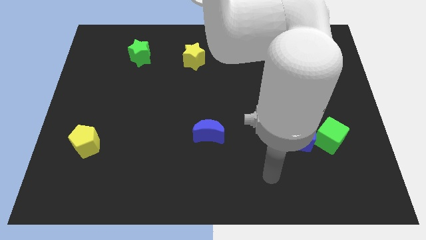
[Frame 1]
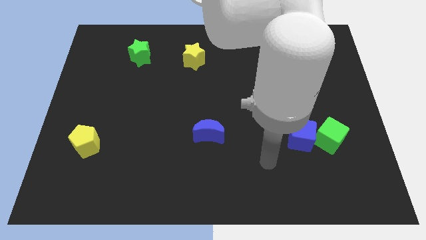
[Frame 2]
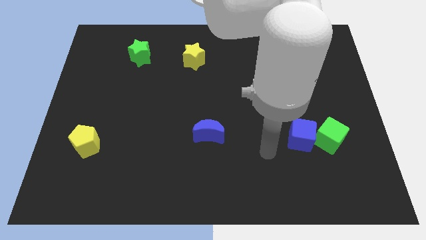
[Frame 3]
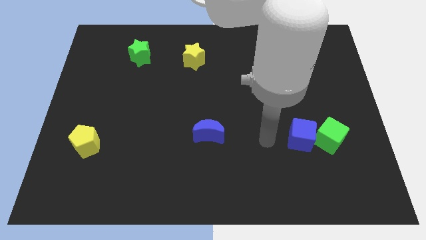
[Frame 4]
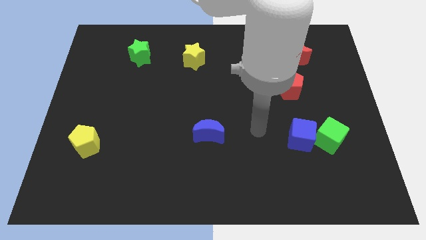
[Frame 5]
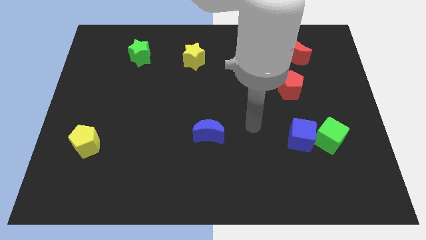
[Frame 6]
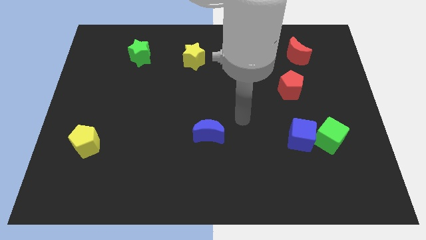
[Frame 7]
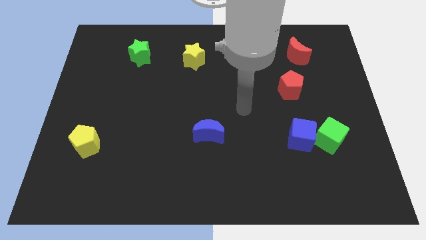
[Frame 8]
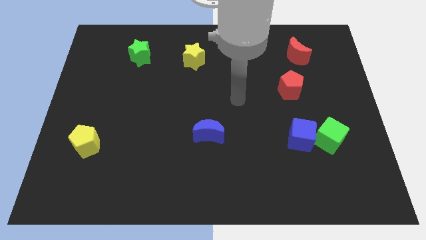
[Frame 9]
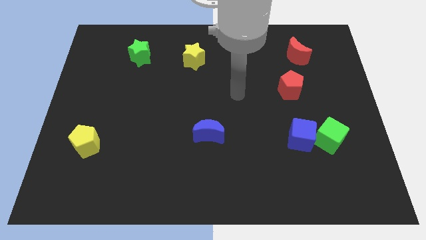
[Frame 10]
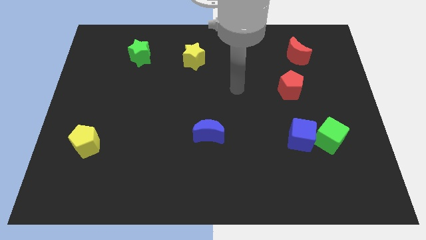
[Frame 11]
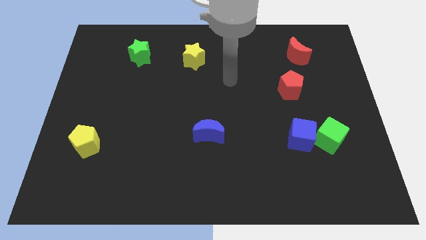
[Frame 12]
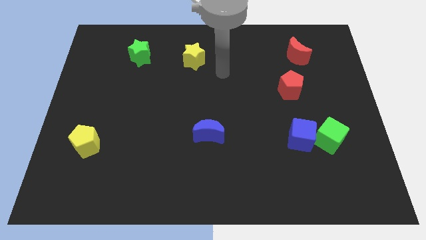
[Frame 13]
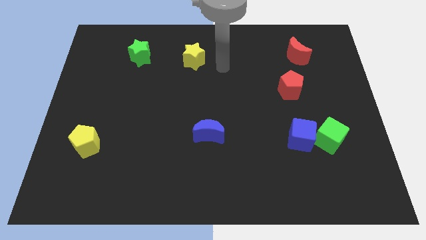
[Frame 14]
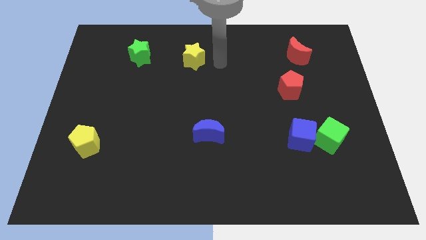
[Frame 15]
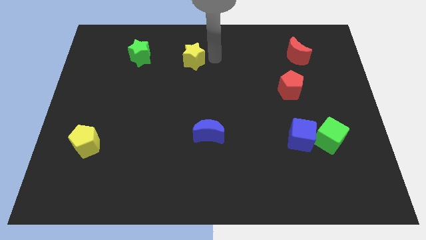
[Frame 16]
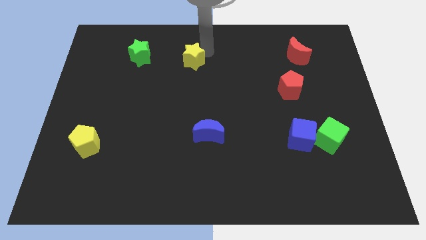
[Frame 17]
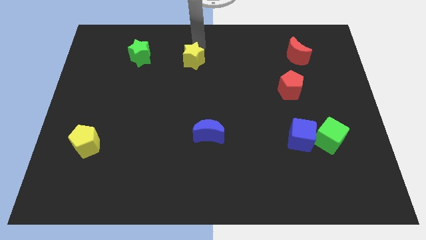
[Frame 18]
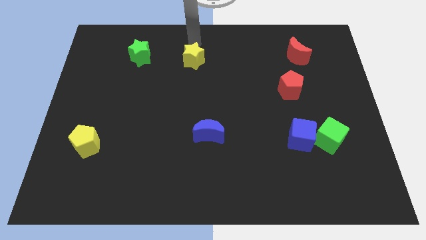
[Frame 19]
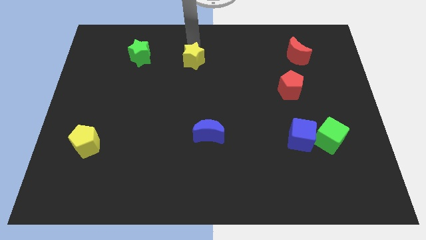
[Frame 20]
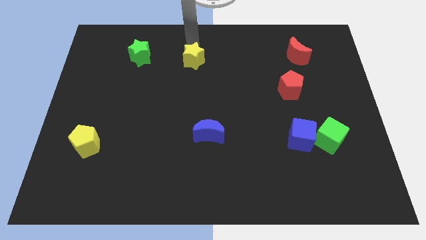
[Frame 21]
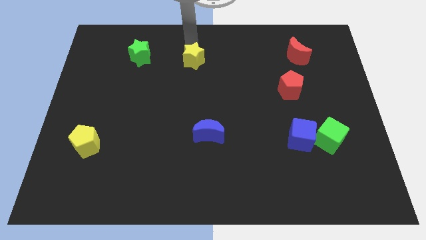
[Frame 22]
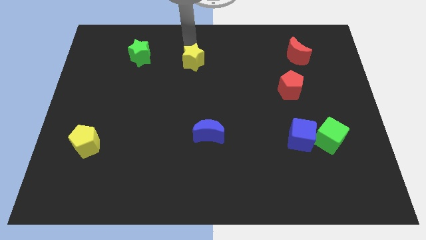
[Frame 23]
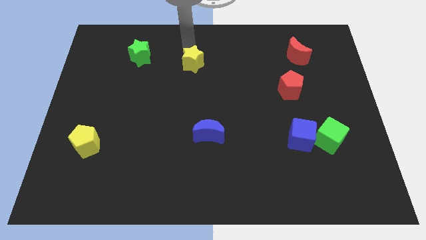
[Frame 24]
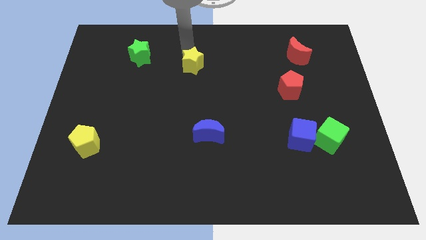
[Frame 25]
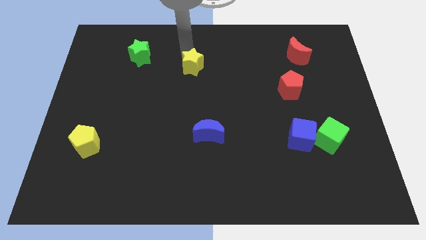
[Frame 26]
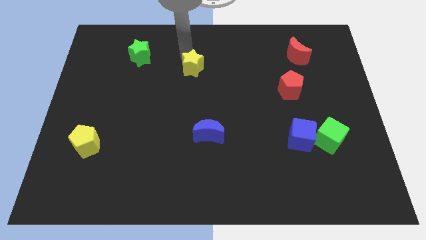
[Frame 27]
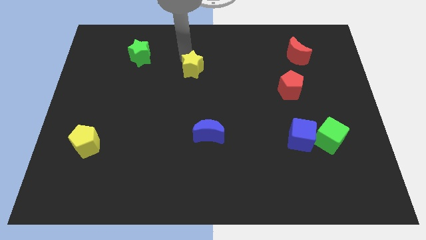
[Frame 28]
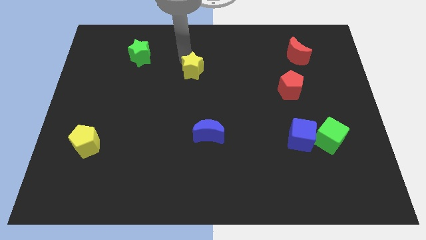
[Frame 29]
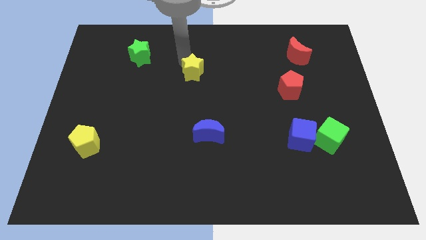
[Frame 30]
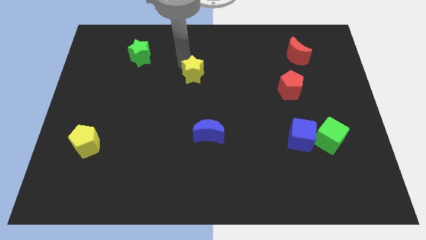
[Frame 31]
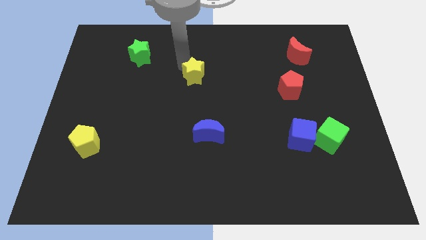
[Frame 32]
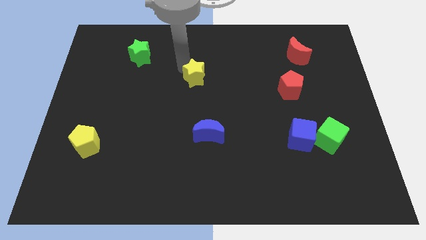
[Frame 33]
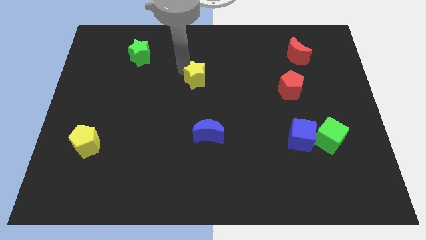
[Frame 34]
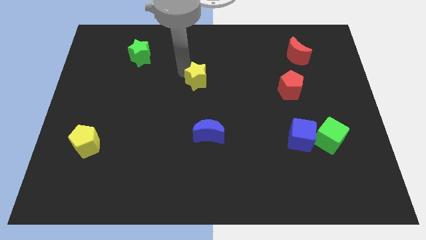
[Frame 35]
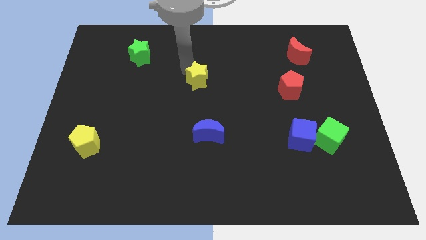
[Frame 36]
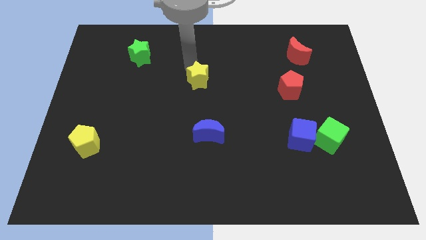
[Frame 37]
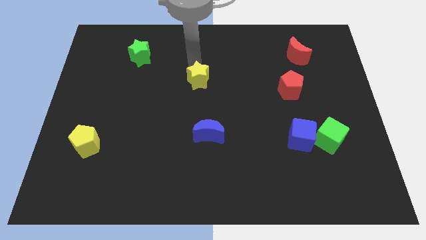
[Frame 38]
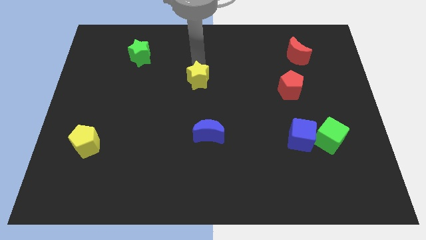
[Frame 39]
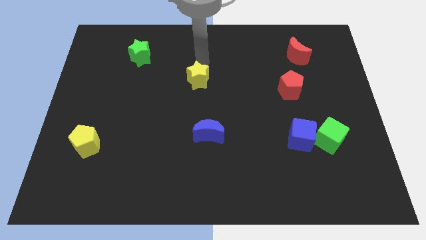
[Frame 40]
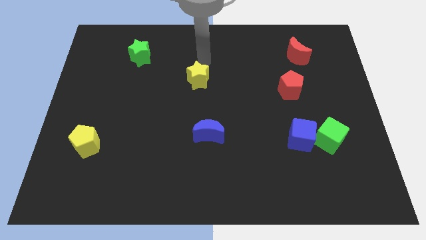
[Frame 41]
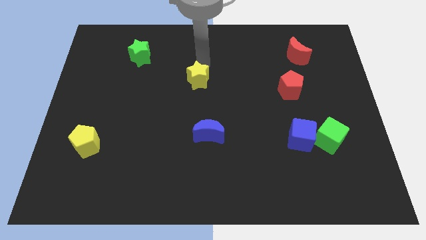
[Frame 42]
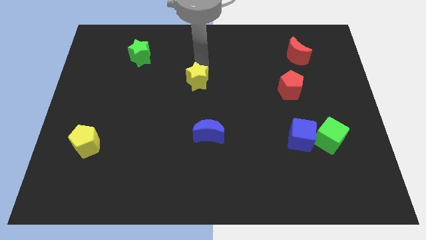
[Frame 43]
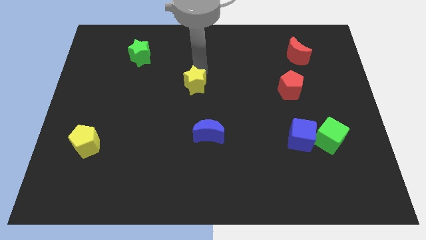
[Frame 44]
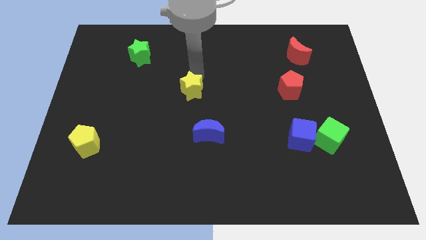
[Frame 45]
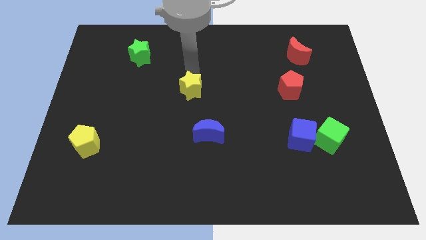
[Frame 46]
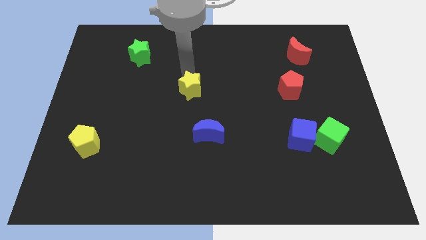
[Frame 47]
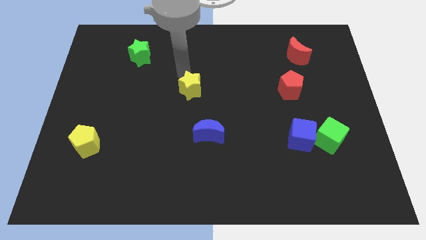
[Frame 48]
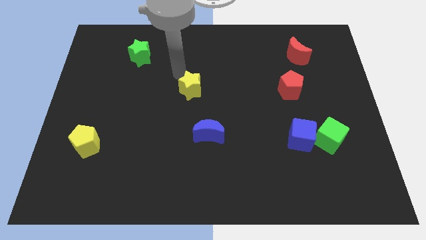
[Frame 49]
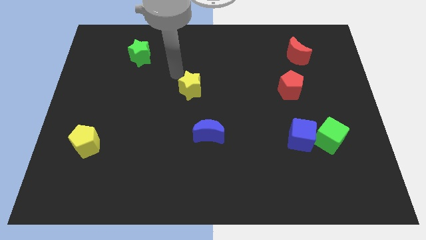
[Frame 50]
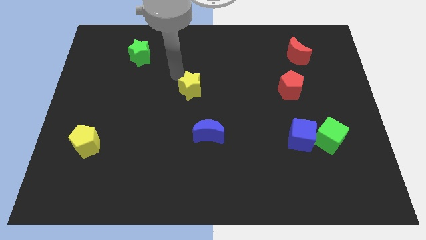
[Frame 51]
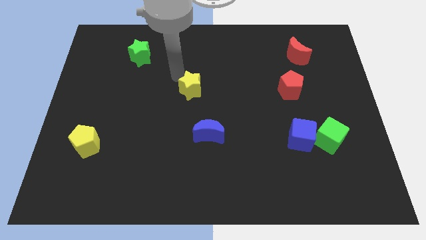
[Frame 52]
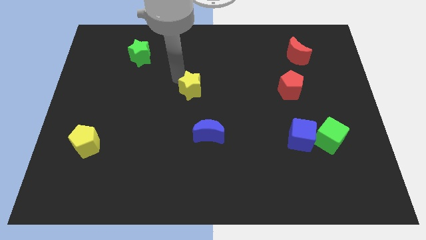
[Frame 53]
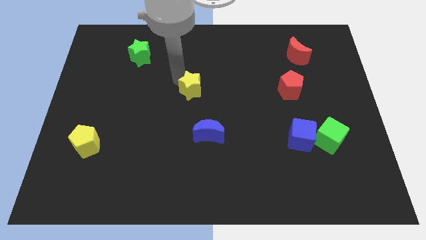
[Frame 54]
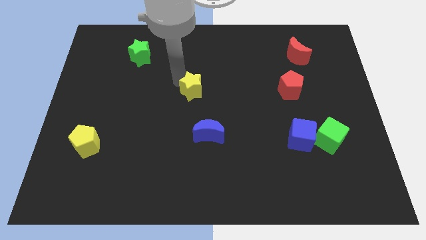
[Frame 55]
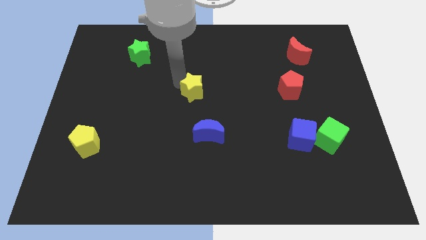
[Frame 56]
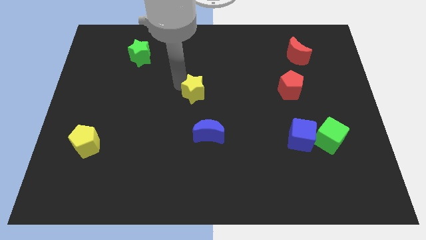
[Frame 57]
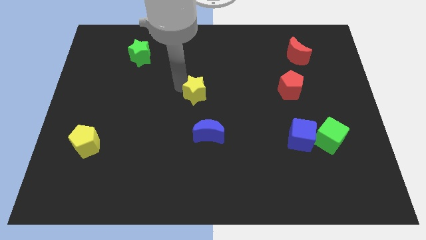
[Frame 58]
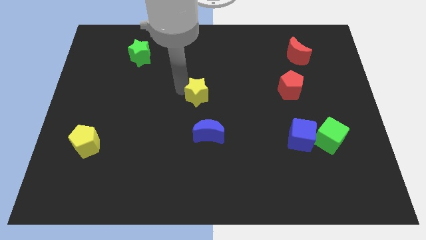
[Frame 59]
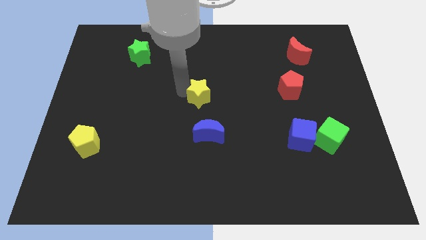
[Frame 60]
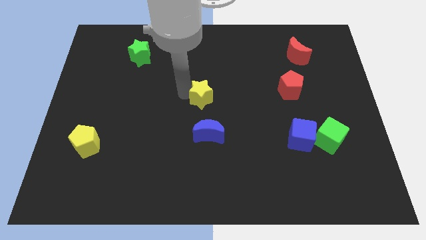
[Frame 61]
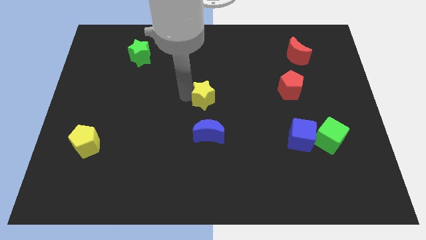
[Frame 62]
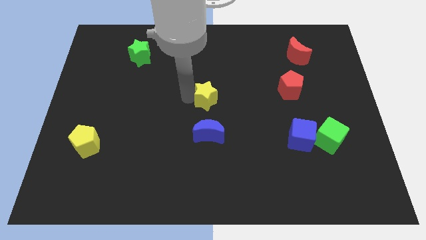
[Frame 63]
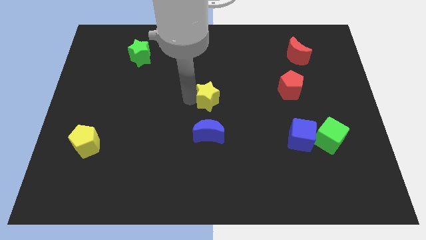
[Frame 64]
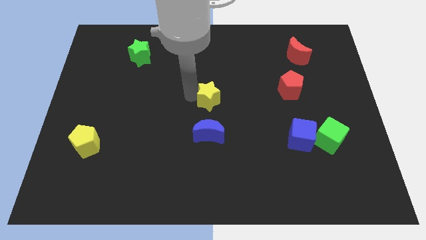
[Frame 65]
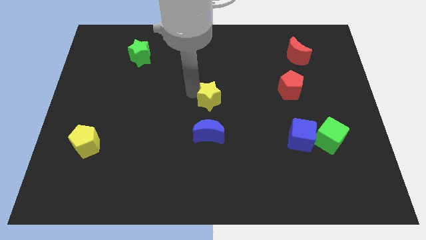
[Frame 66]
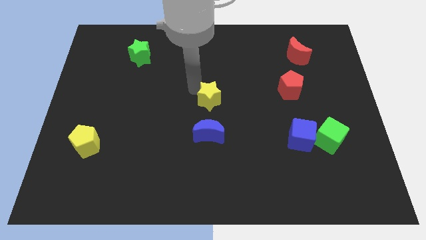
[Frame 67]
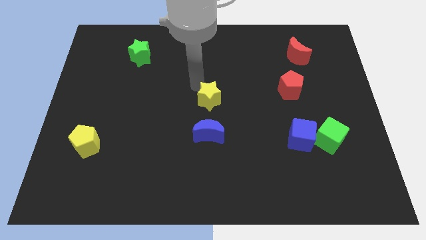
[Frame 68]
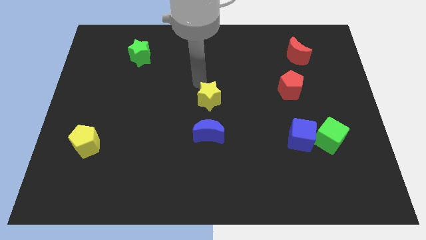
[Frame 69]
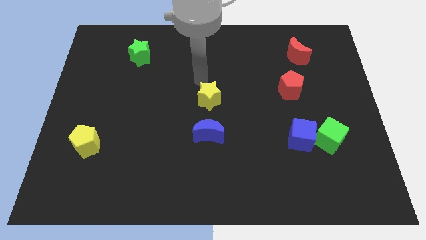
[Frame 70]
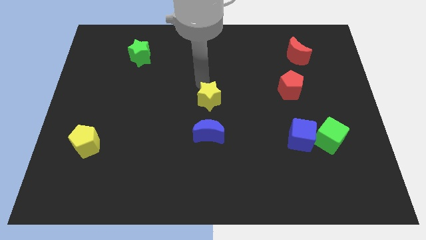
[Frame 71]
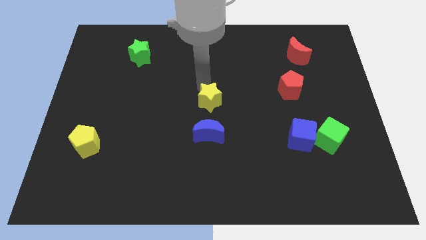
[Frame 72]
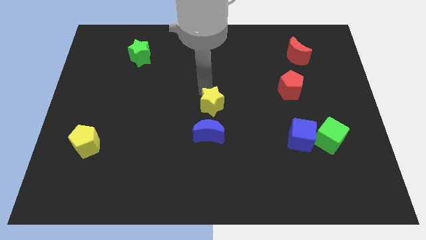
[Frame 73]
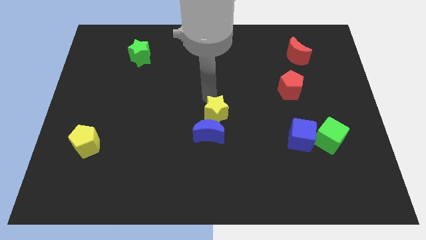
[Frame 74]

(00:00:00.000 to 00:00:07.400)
push the yellow star towards the blue moon

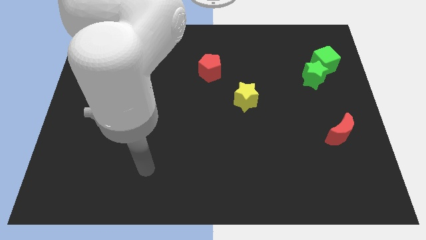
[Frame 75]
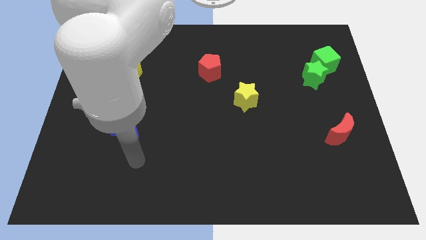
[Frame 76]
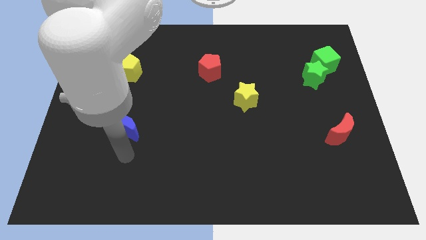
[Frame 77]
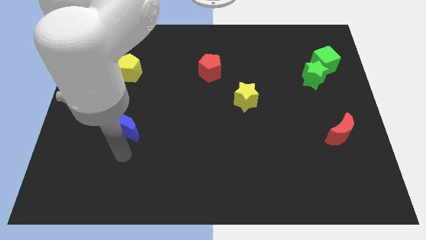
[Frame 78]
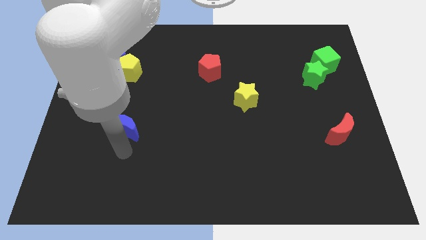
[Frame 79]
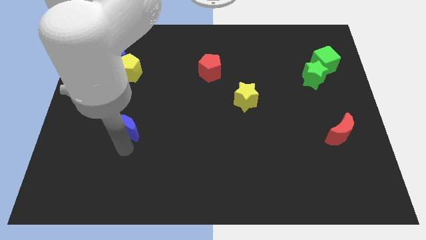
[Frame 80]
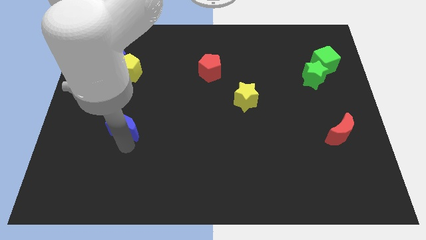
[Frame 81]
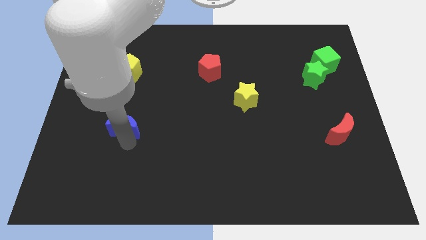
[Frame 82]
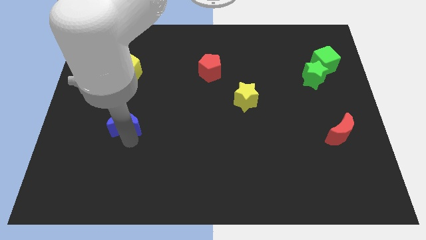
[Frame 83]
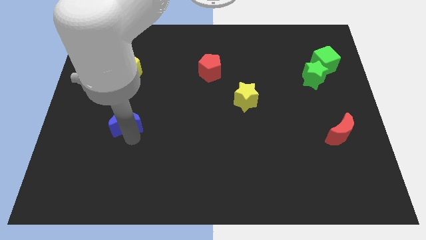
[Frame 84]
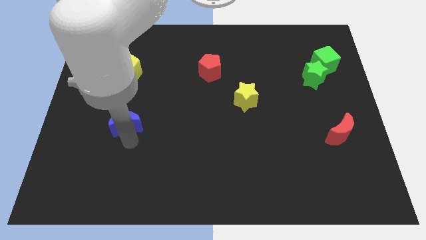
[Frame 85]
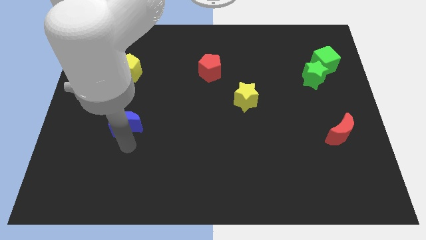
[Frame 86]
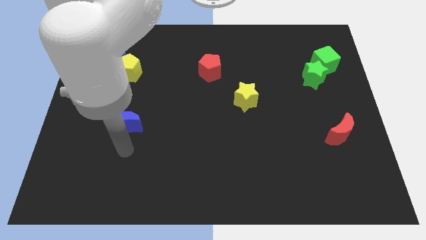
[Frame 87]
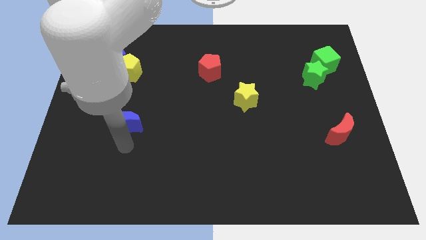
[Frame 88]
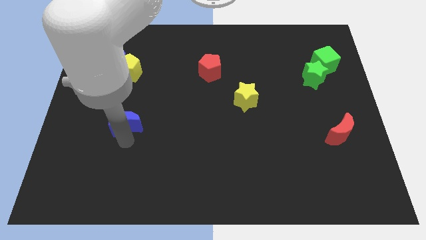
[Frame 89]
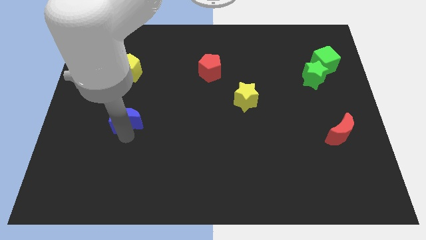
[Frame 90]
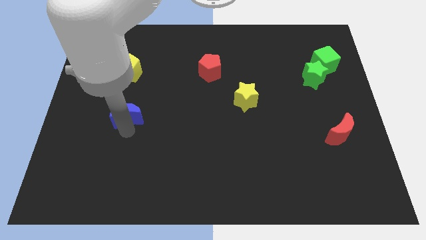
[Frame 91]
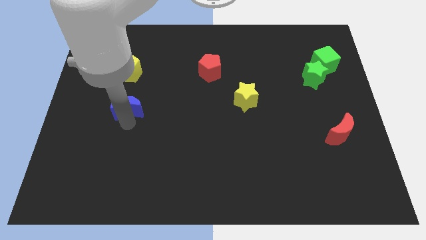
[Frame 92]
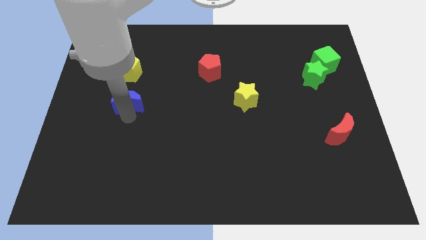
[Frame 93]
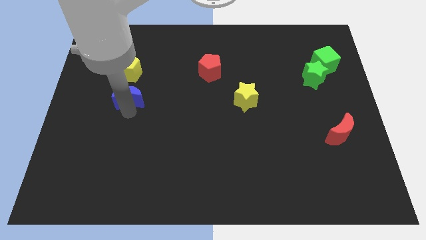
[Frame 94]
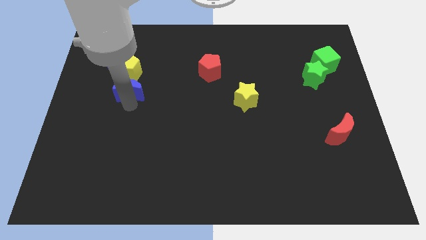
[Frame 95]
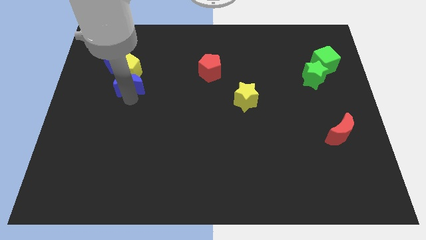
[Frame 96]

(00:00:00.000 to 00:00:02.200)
put the blue moon close to the yellow pentagon
